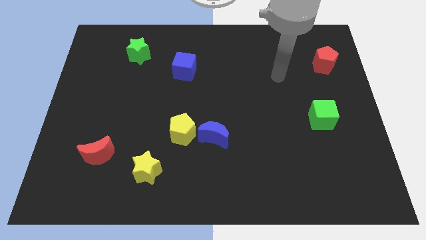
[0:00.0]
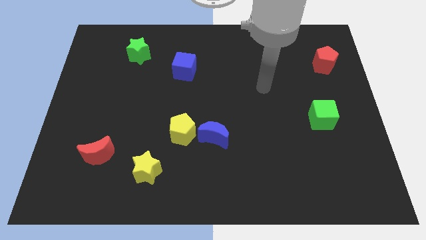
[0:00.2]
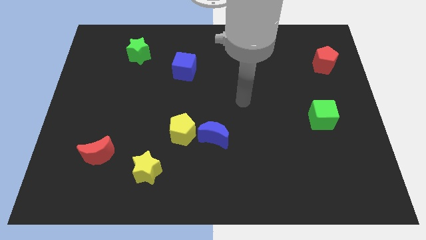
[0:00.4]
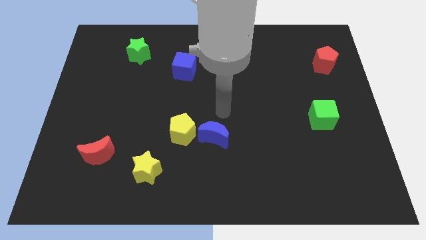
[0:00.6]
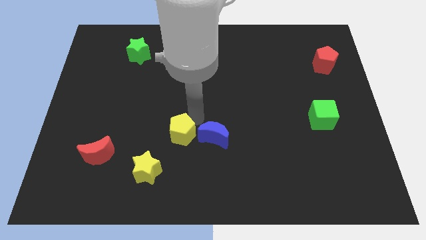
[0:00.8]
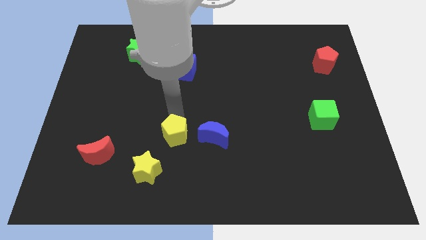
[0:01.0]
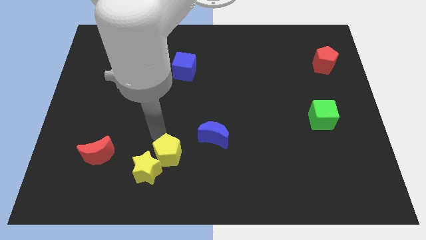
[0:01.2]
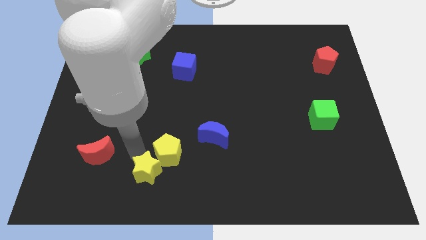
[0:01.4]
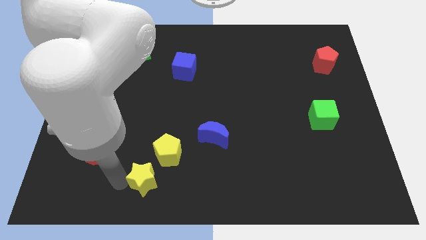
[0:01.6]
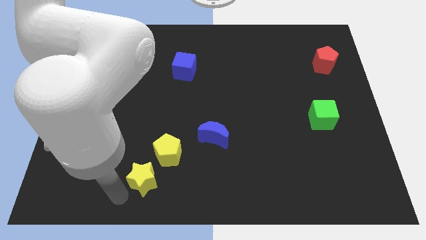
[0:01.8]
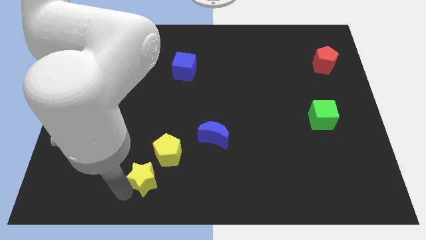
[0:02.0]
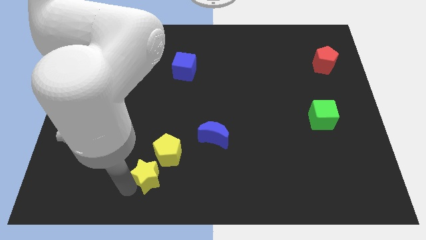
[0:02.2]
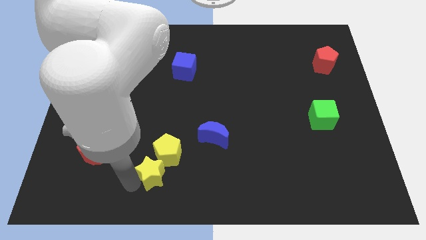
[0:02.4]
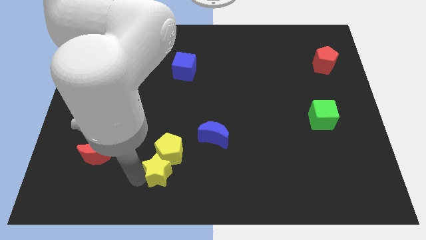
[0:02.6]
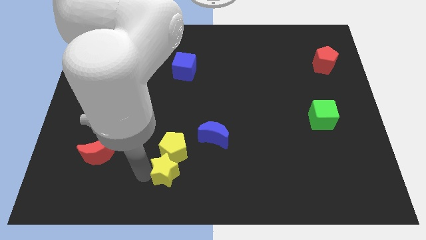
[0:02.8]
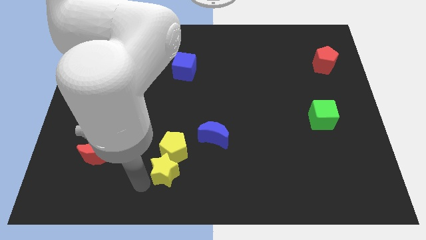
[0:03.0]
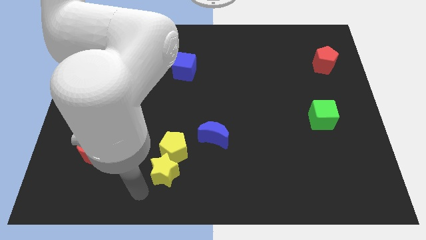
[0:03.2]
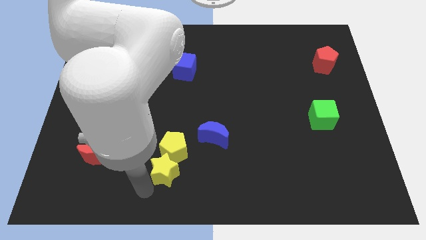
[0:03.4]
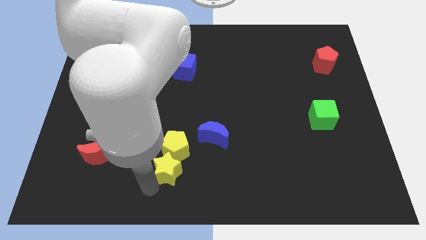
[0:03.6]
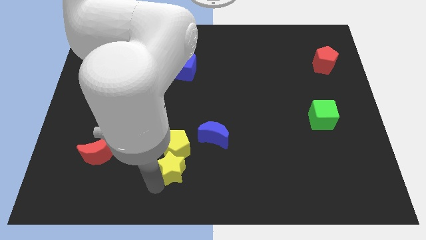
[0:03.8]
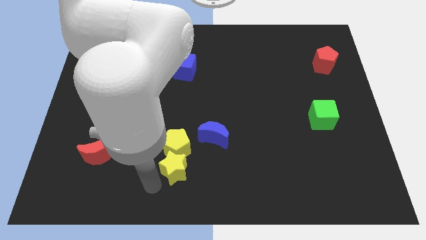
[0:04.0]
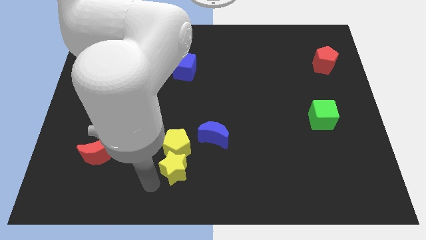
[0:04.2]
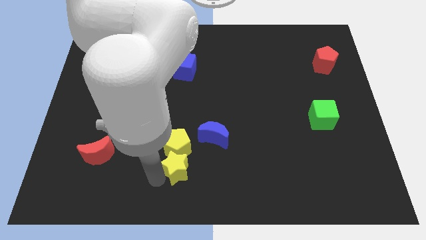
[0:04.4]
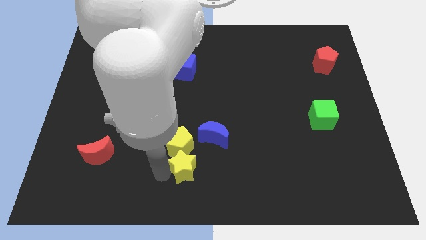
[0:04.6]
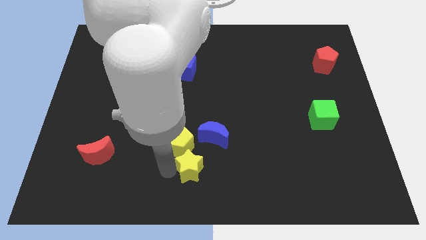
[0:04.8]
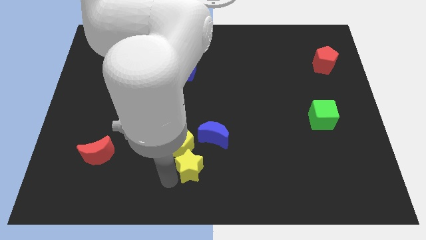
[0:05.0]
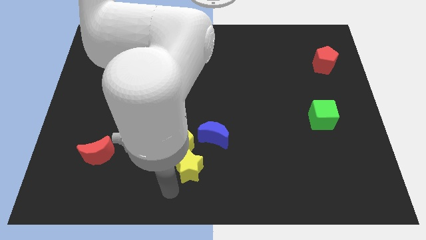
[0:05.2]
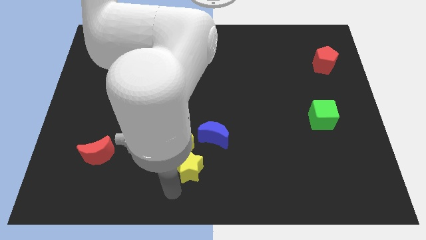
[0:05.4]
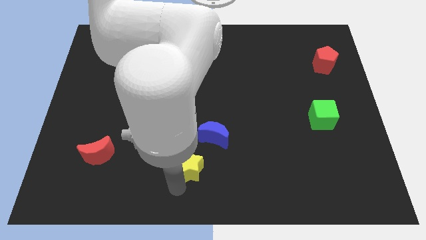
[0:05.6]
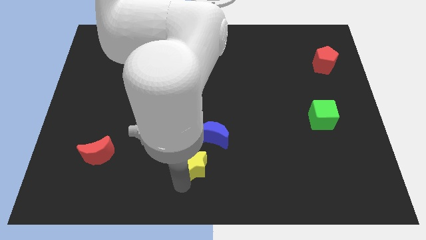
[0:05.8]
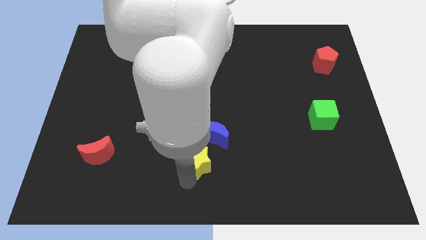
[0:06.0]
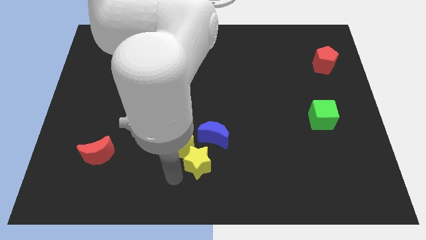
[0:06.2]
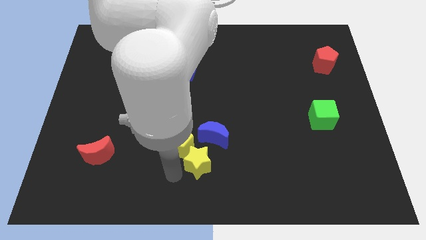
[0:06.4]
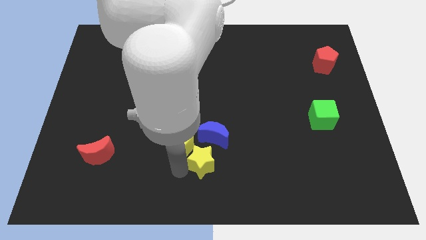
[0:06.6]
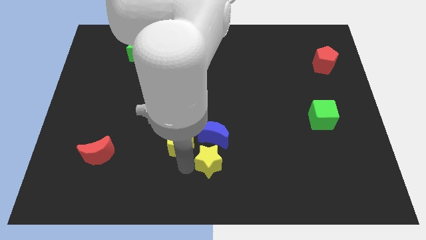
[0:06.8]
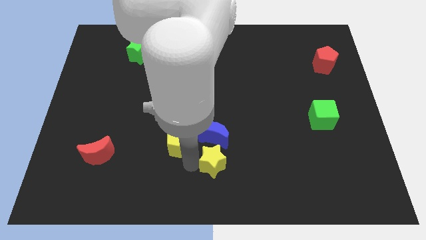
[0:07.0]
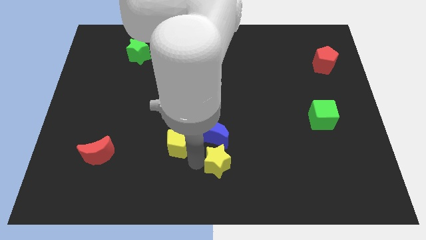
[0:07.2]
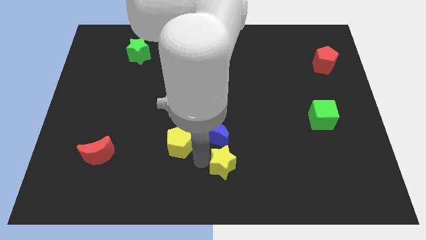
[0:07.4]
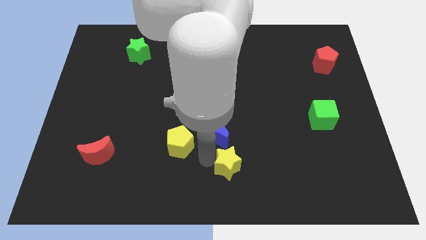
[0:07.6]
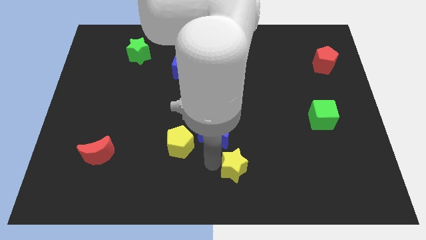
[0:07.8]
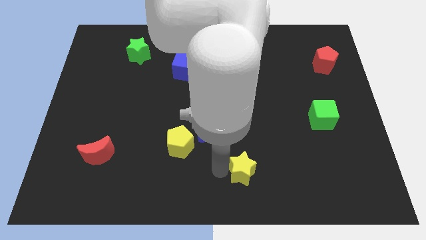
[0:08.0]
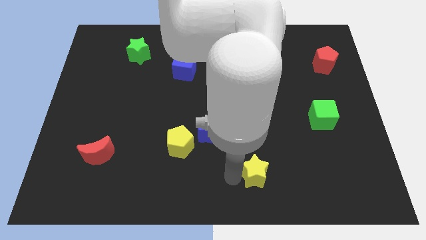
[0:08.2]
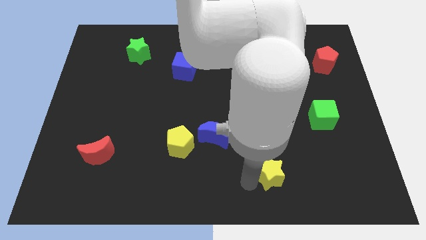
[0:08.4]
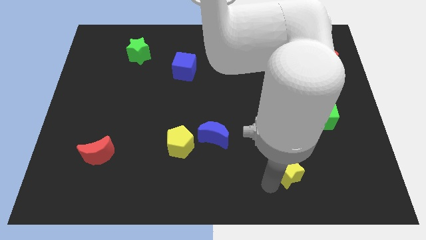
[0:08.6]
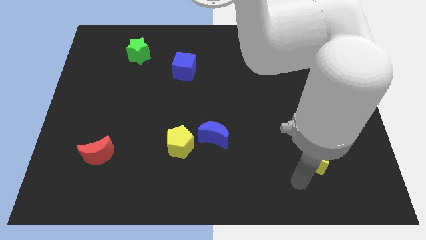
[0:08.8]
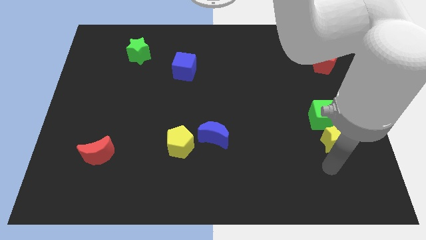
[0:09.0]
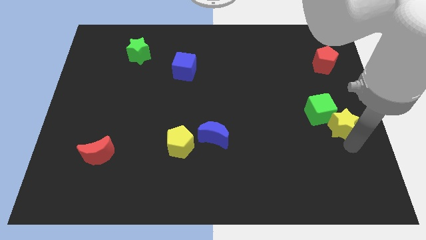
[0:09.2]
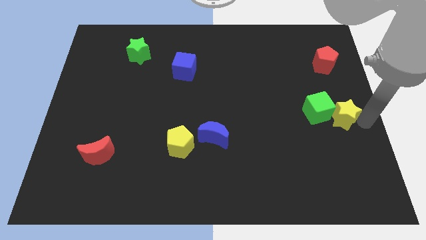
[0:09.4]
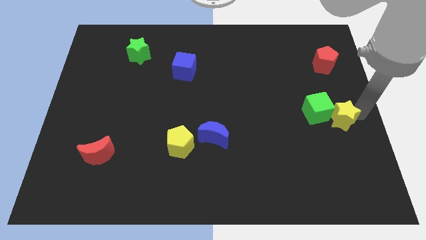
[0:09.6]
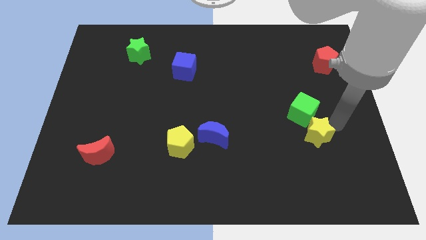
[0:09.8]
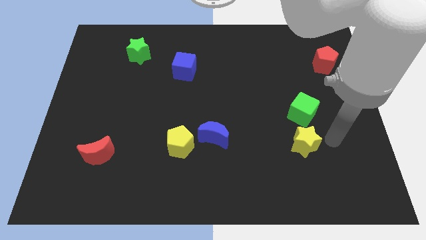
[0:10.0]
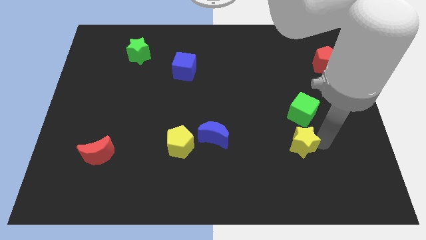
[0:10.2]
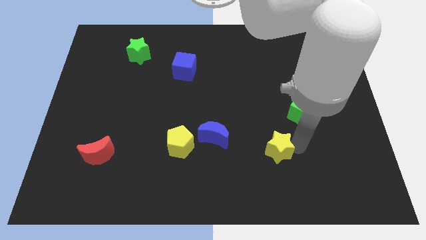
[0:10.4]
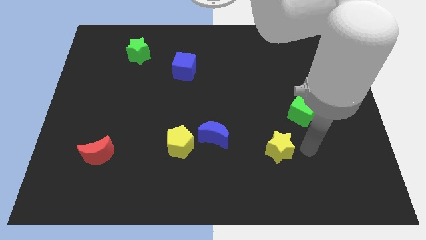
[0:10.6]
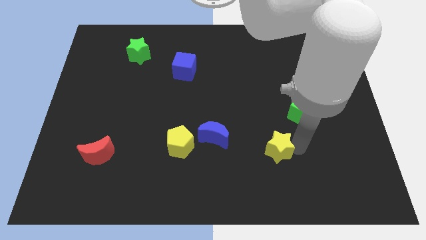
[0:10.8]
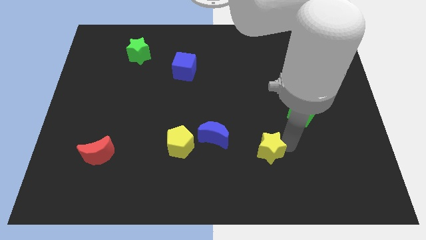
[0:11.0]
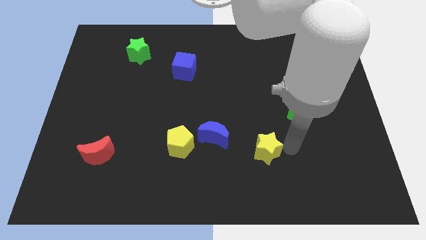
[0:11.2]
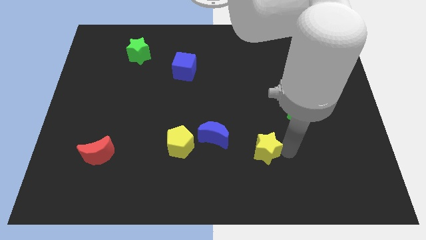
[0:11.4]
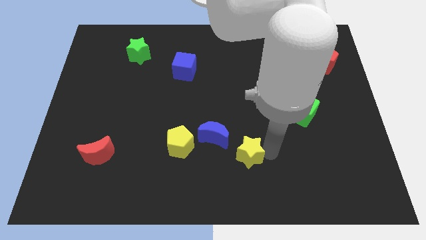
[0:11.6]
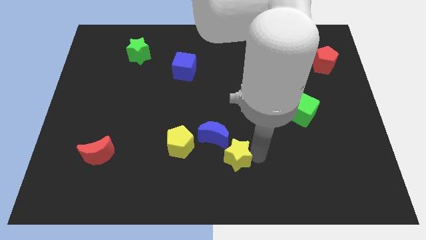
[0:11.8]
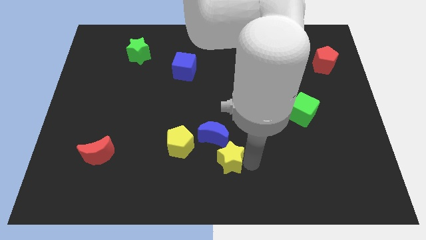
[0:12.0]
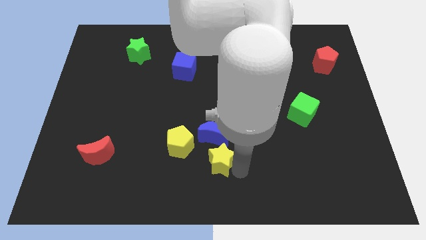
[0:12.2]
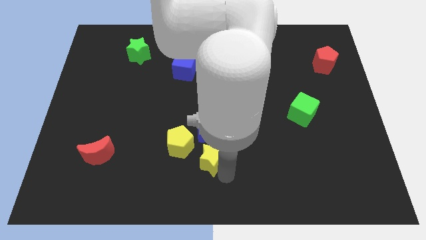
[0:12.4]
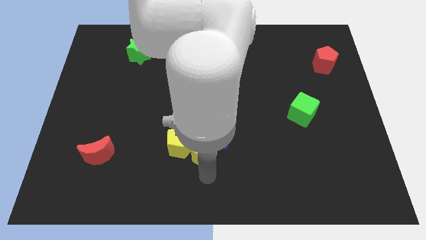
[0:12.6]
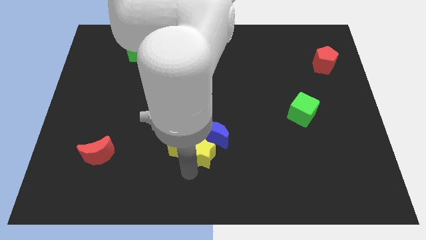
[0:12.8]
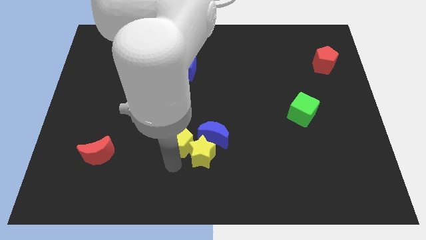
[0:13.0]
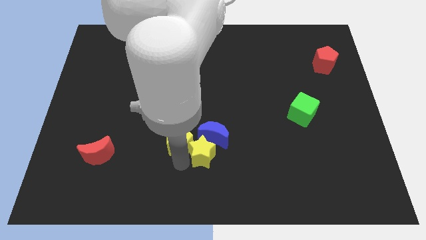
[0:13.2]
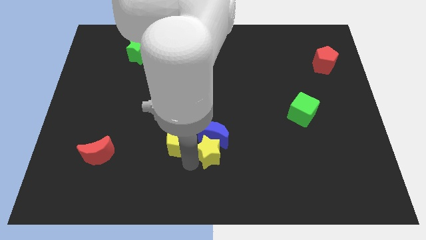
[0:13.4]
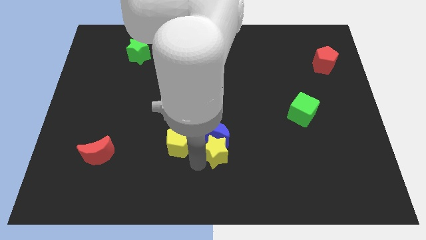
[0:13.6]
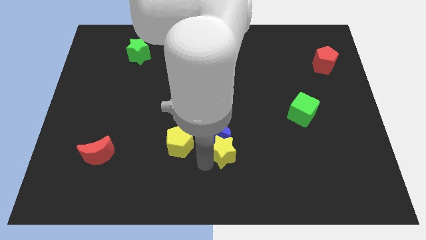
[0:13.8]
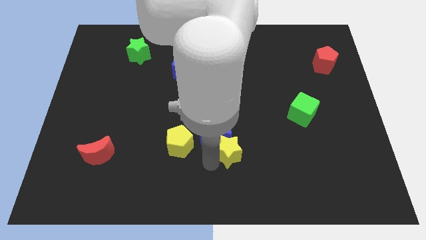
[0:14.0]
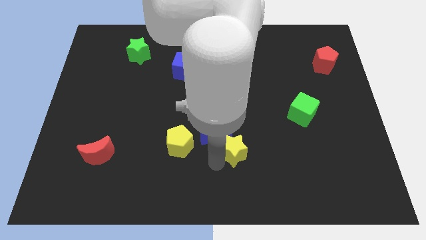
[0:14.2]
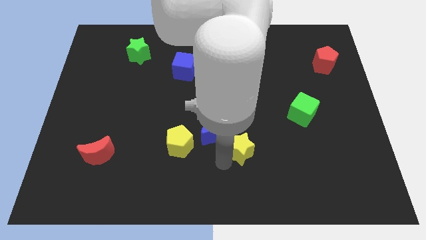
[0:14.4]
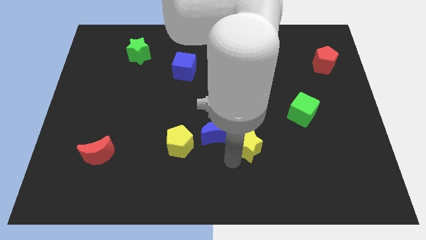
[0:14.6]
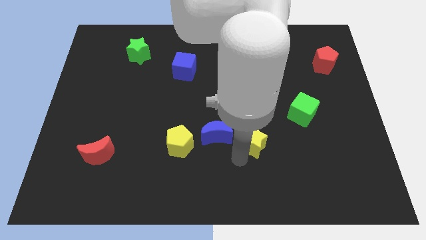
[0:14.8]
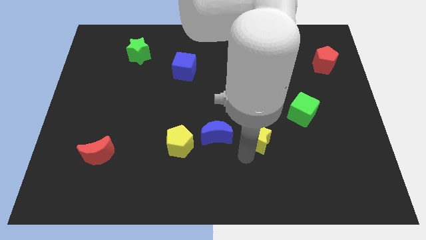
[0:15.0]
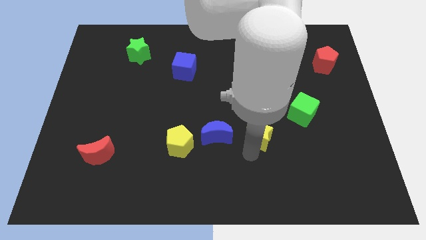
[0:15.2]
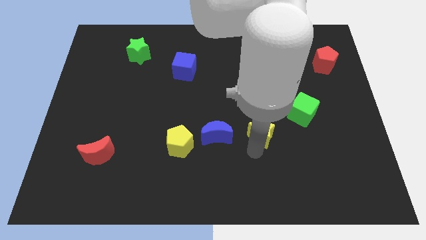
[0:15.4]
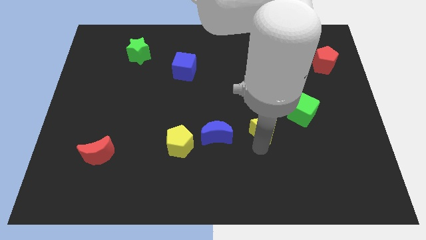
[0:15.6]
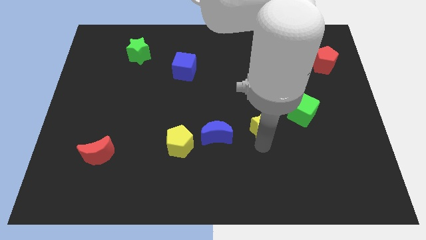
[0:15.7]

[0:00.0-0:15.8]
slide the yellow star left of the green cube
